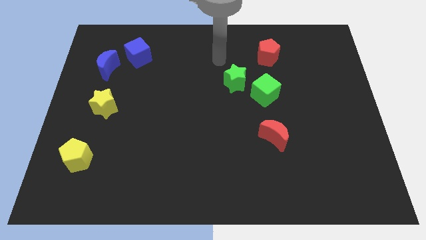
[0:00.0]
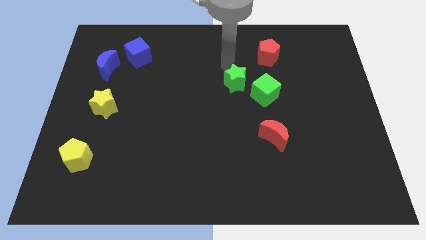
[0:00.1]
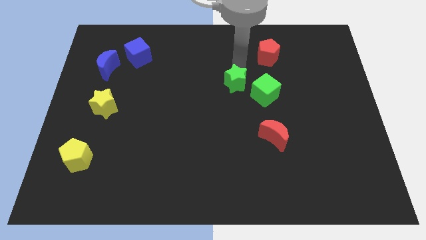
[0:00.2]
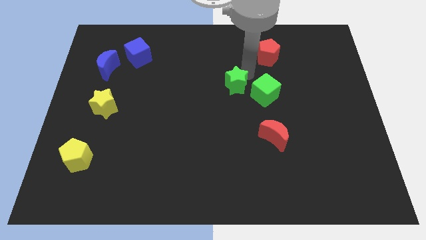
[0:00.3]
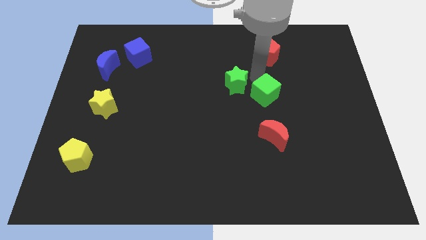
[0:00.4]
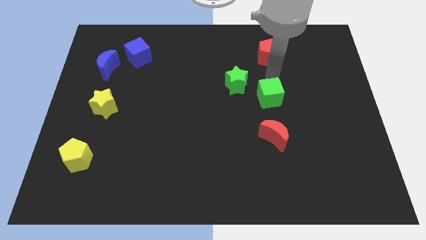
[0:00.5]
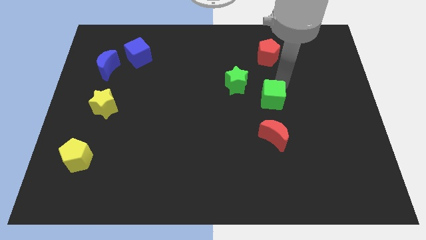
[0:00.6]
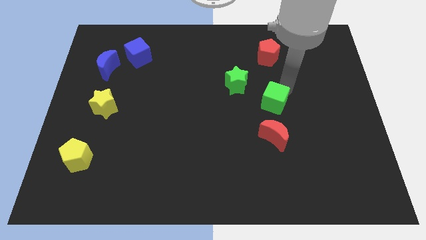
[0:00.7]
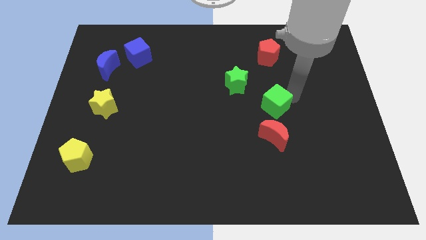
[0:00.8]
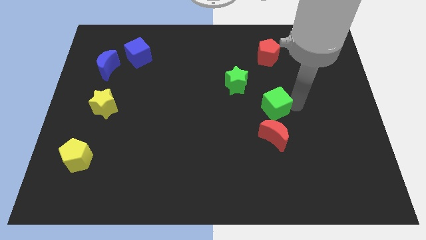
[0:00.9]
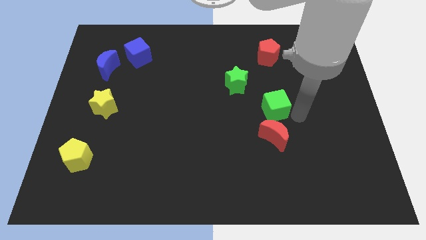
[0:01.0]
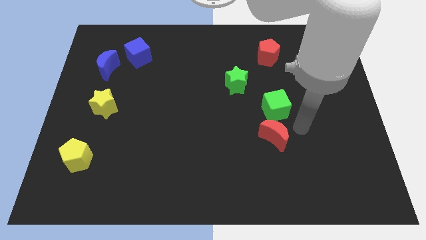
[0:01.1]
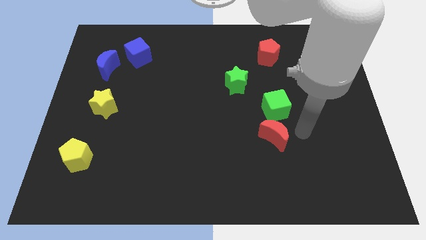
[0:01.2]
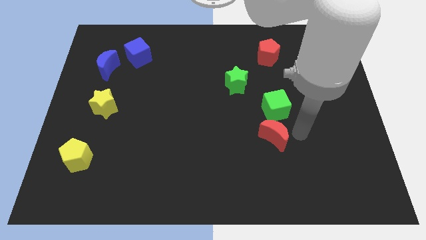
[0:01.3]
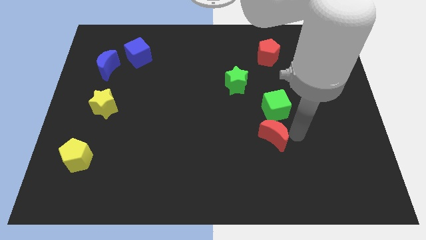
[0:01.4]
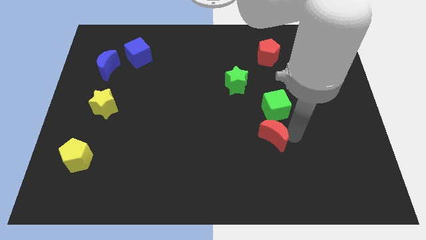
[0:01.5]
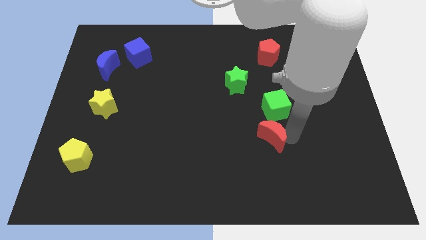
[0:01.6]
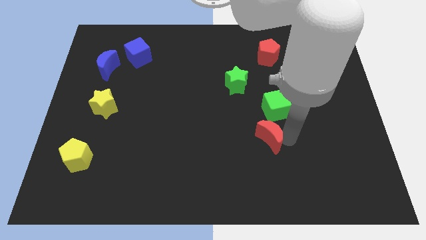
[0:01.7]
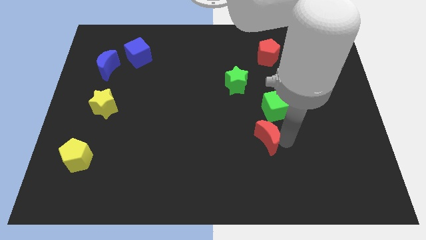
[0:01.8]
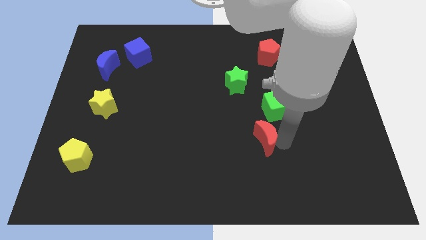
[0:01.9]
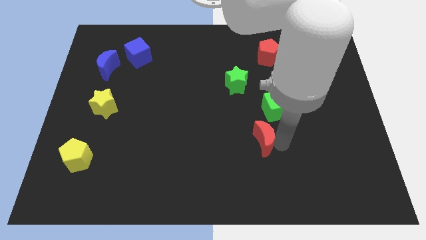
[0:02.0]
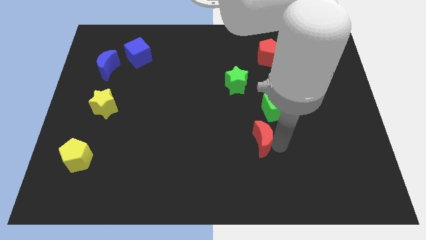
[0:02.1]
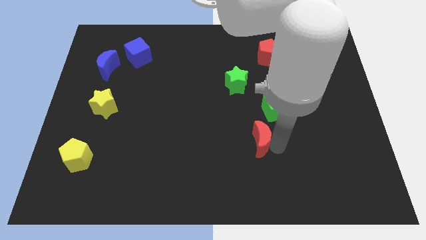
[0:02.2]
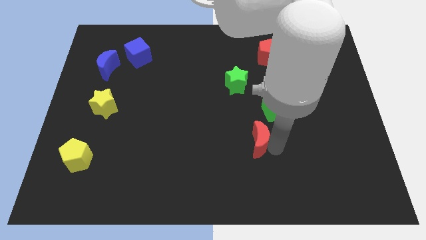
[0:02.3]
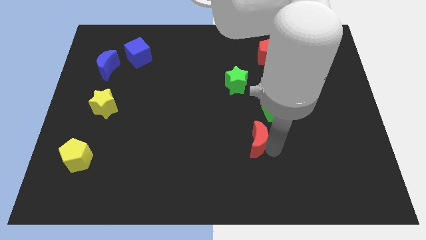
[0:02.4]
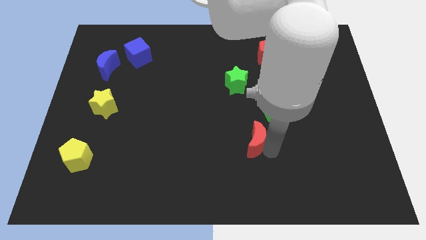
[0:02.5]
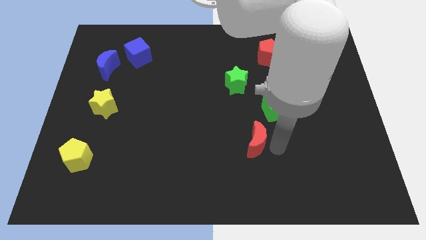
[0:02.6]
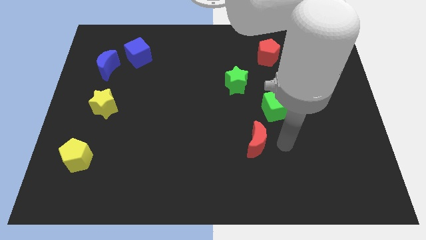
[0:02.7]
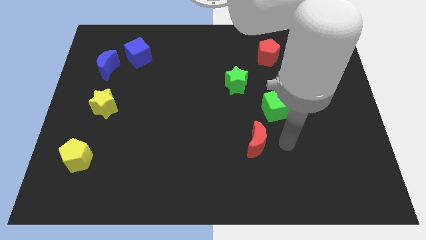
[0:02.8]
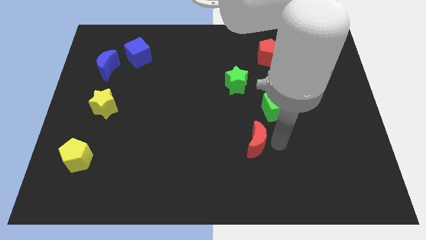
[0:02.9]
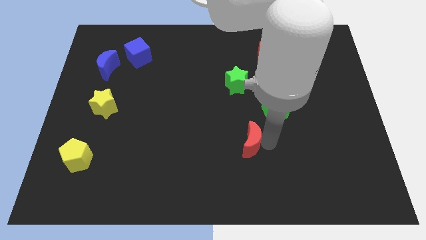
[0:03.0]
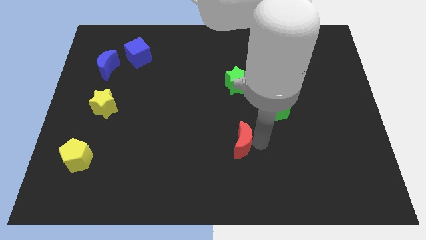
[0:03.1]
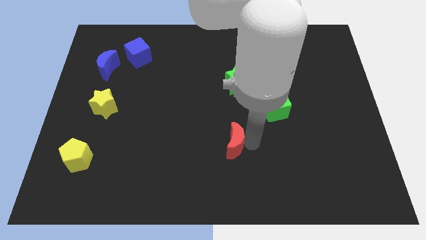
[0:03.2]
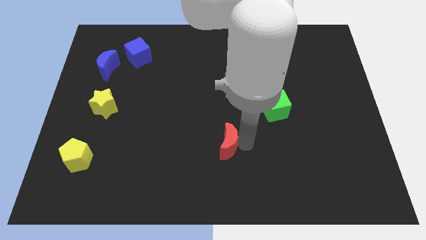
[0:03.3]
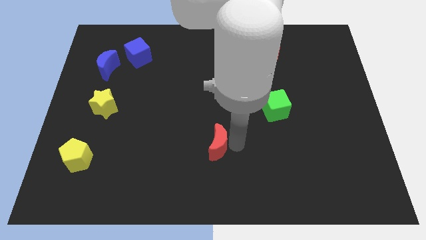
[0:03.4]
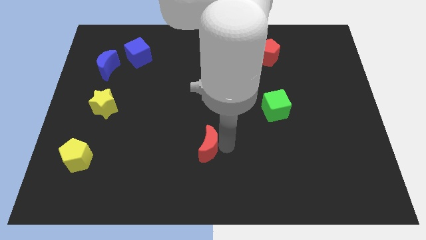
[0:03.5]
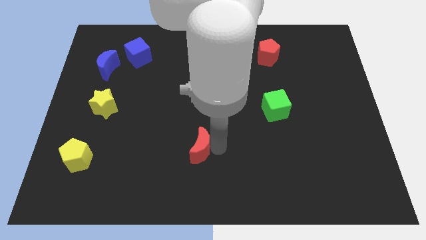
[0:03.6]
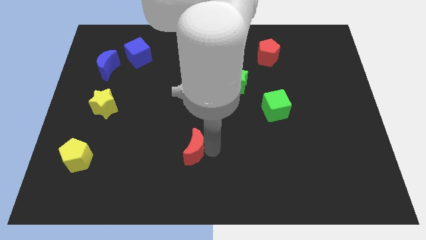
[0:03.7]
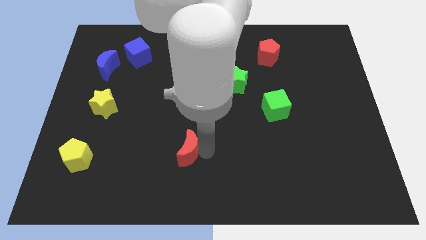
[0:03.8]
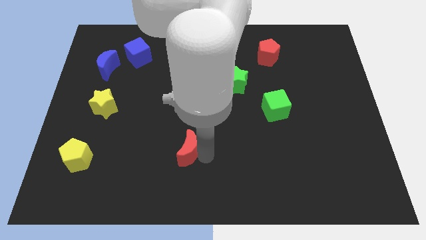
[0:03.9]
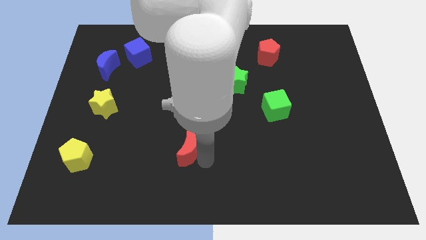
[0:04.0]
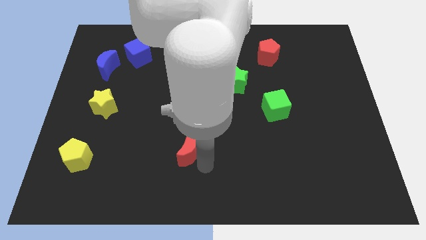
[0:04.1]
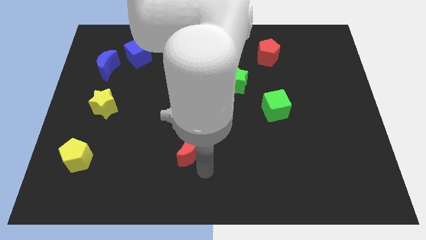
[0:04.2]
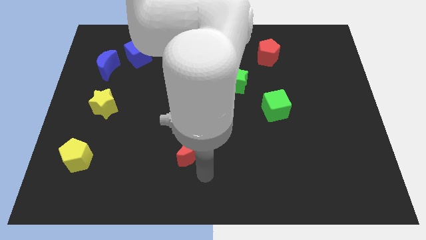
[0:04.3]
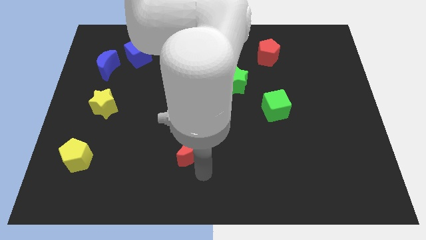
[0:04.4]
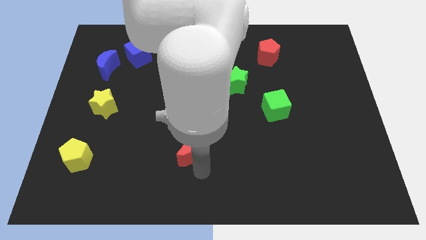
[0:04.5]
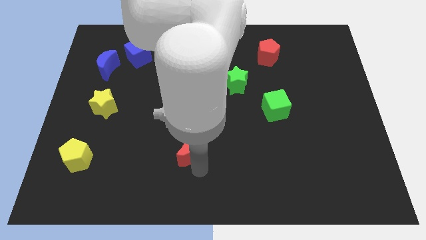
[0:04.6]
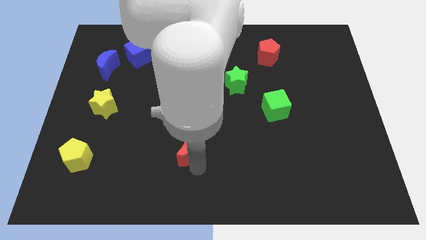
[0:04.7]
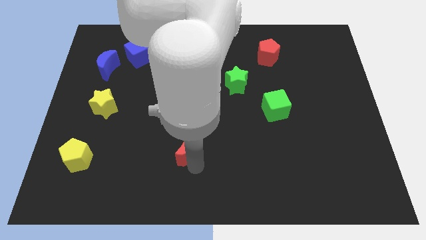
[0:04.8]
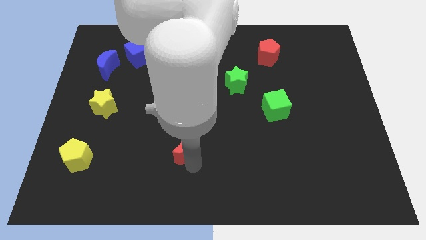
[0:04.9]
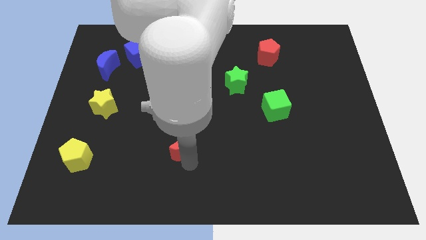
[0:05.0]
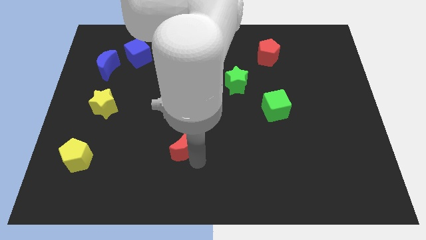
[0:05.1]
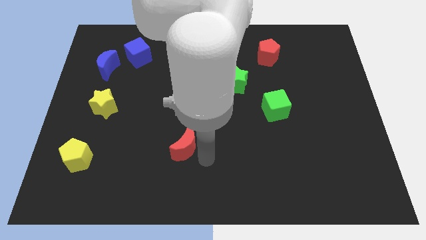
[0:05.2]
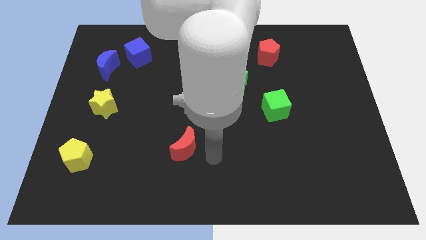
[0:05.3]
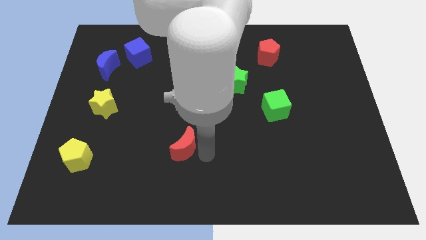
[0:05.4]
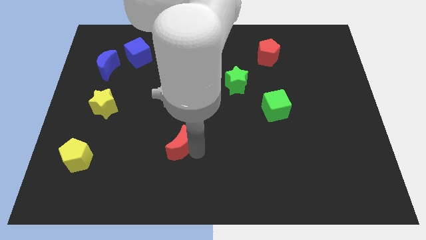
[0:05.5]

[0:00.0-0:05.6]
push the red moon left

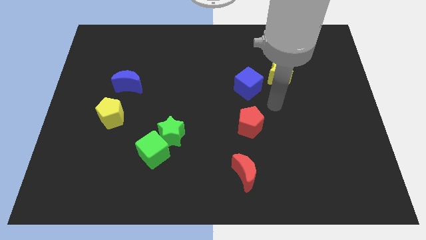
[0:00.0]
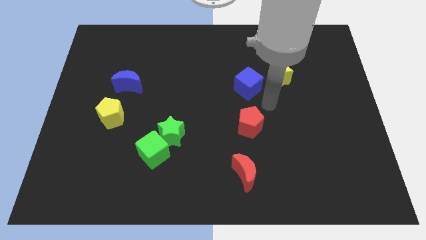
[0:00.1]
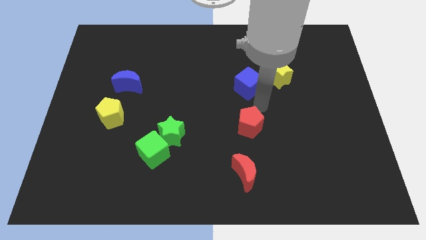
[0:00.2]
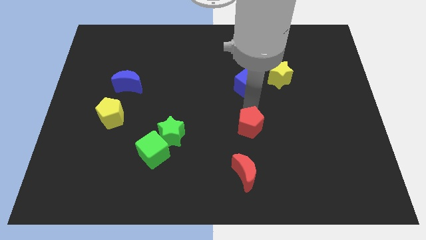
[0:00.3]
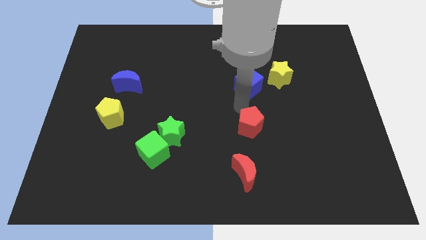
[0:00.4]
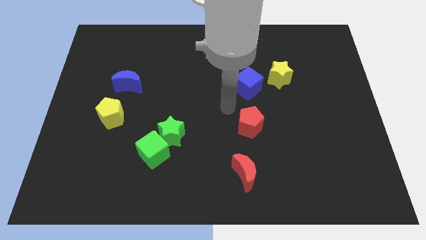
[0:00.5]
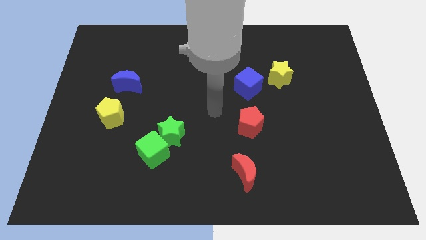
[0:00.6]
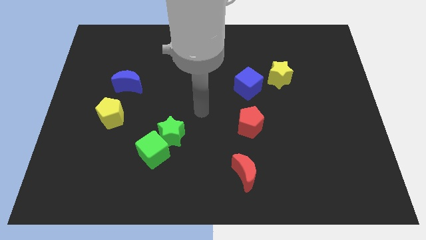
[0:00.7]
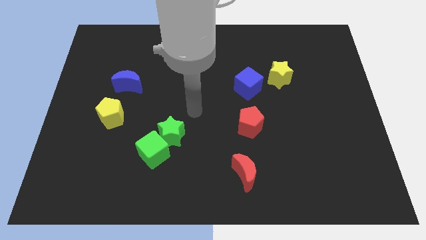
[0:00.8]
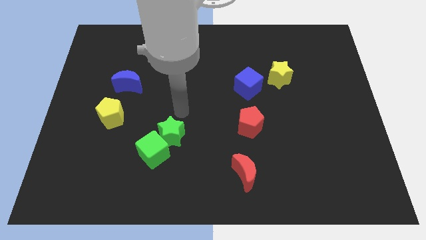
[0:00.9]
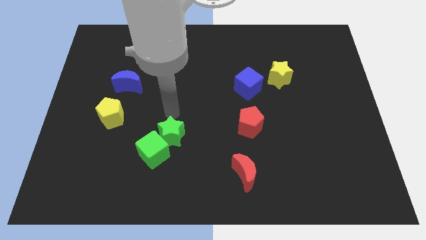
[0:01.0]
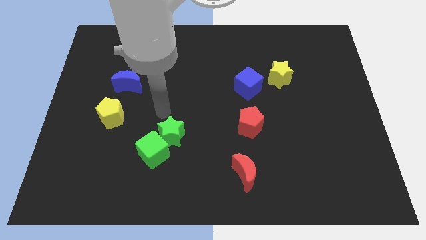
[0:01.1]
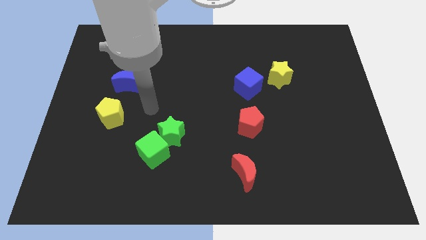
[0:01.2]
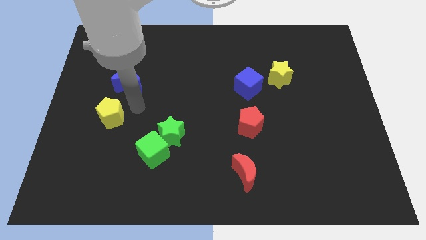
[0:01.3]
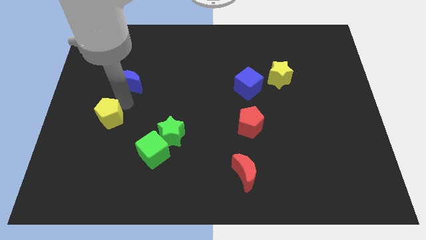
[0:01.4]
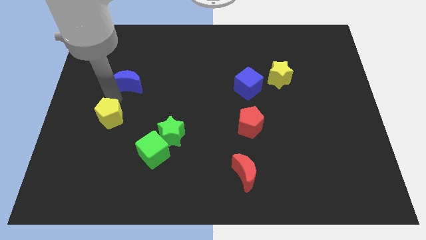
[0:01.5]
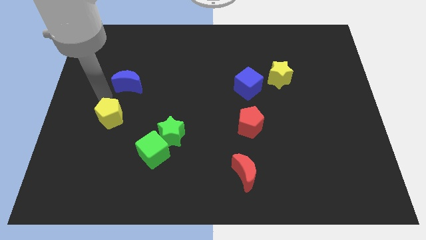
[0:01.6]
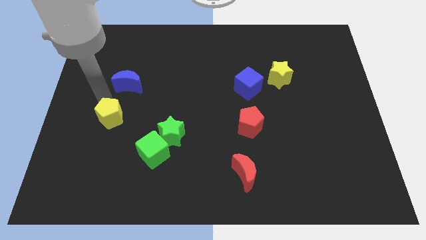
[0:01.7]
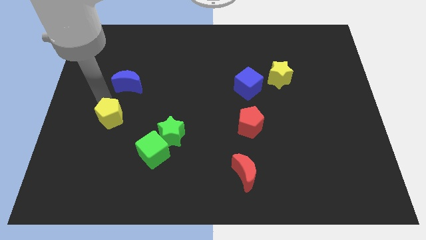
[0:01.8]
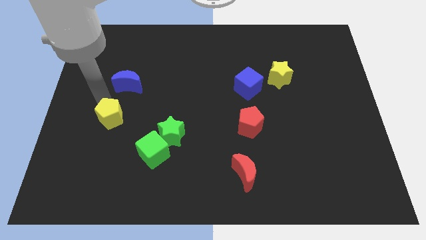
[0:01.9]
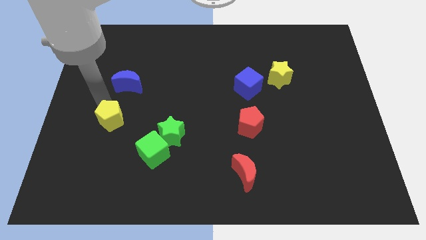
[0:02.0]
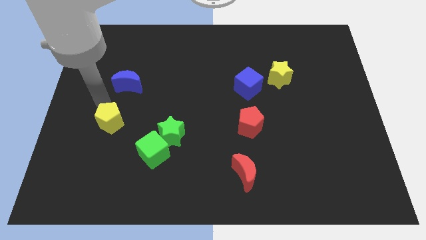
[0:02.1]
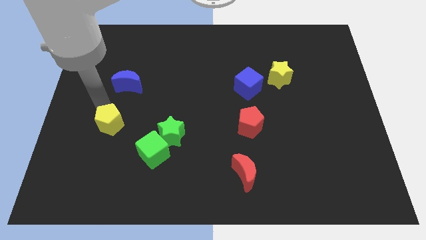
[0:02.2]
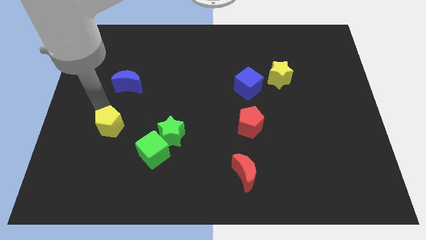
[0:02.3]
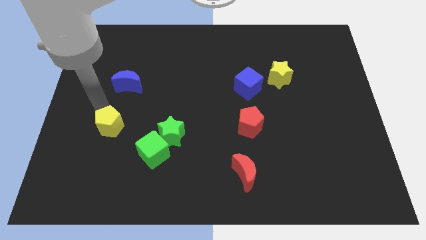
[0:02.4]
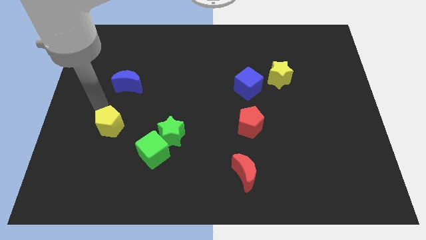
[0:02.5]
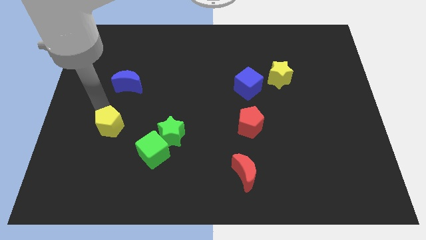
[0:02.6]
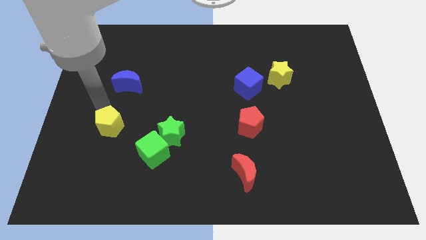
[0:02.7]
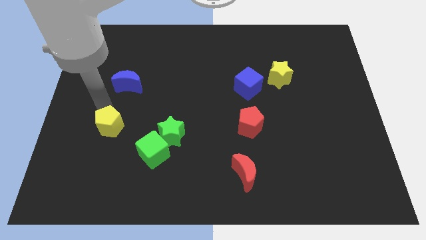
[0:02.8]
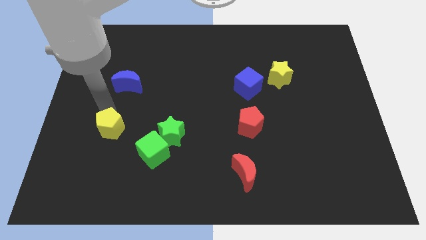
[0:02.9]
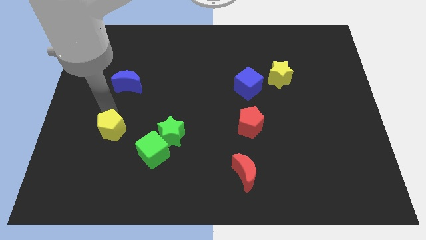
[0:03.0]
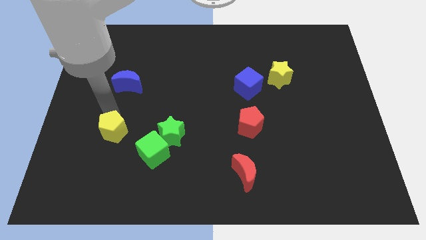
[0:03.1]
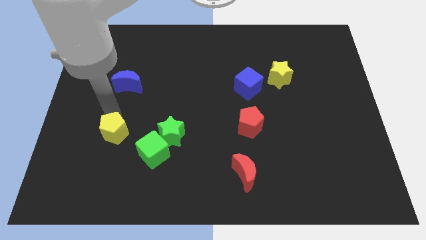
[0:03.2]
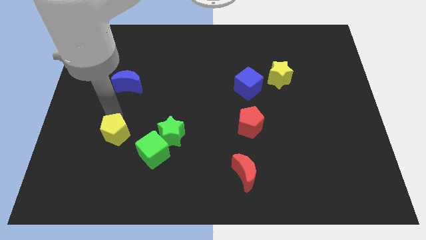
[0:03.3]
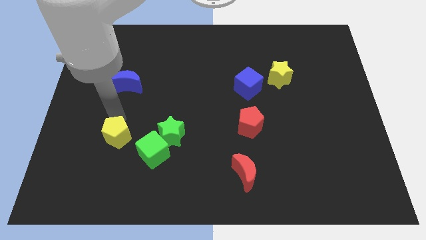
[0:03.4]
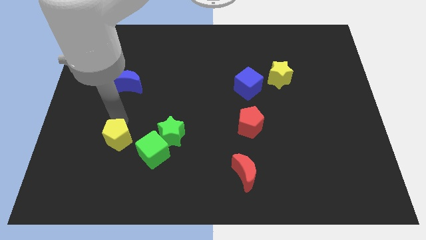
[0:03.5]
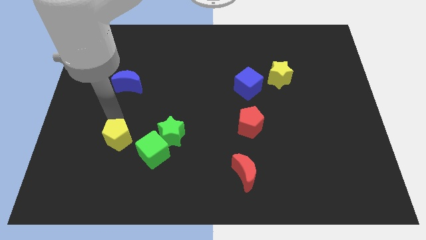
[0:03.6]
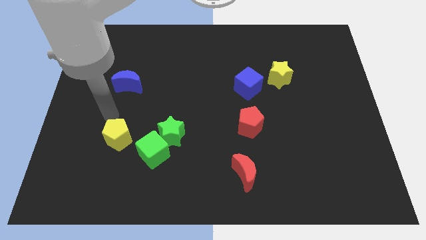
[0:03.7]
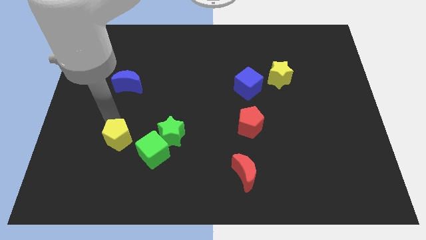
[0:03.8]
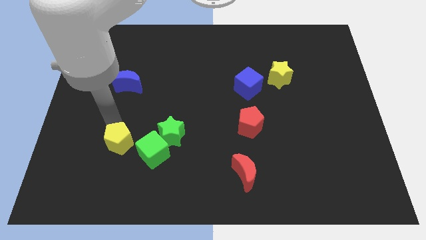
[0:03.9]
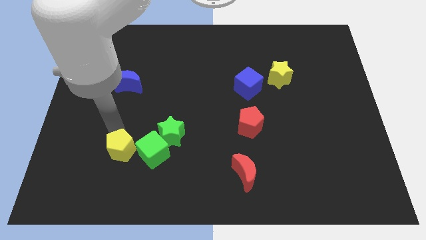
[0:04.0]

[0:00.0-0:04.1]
move the yellow pentagon a bit down and then right
